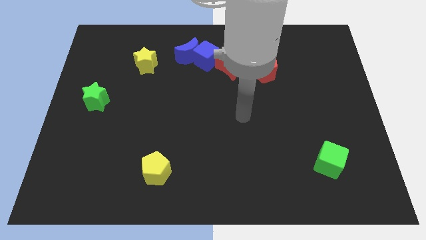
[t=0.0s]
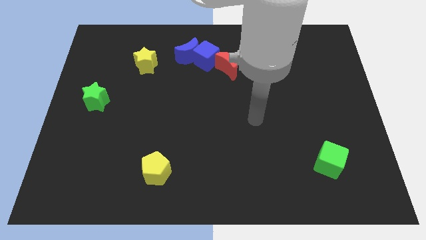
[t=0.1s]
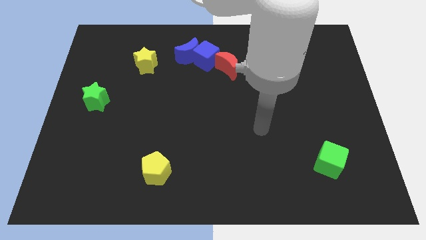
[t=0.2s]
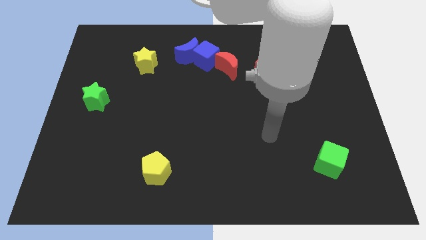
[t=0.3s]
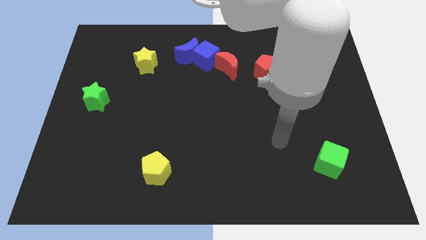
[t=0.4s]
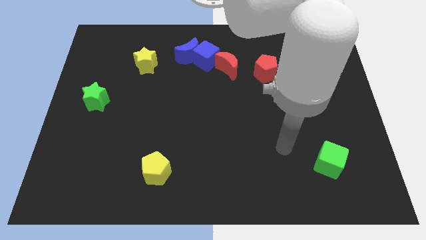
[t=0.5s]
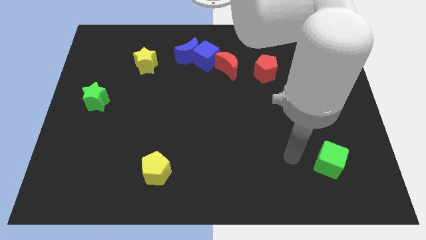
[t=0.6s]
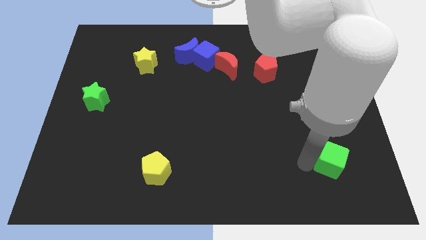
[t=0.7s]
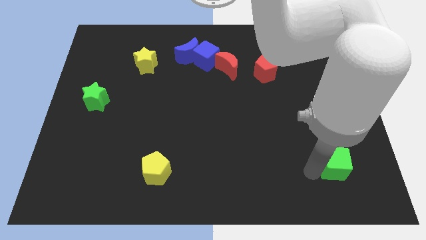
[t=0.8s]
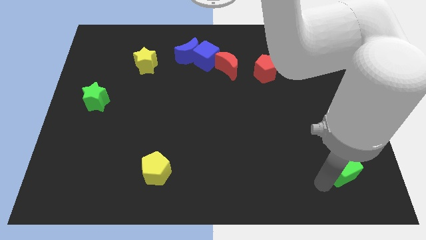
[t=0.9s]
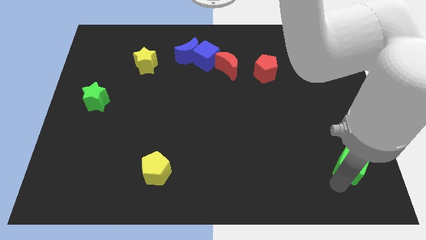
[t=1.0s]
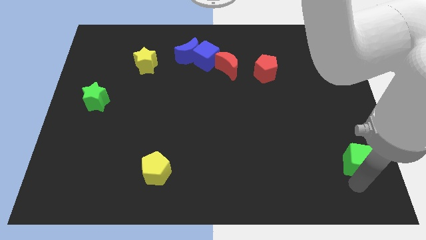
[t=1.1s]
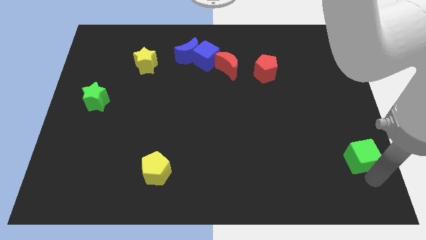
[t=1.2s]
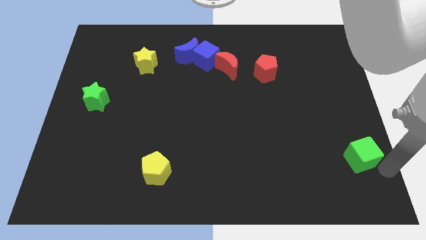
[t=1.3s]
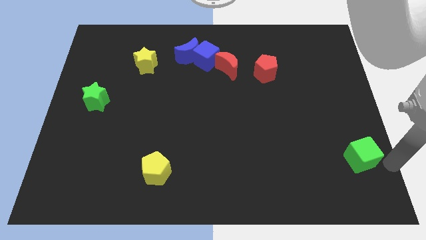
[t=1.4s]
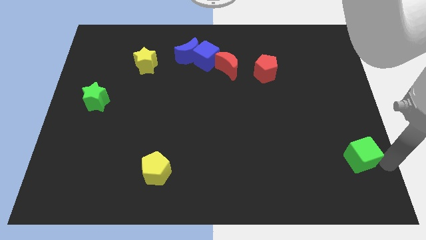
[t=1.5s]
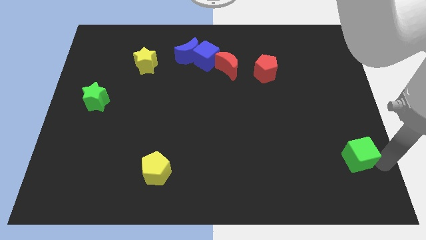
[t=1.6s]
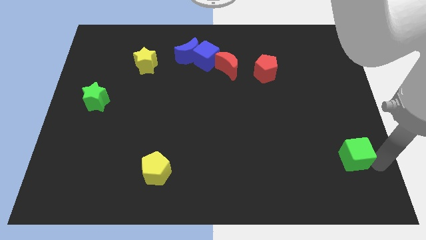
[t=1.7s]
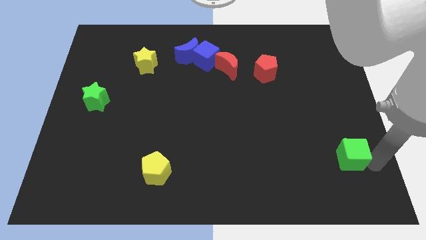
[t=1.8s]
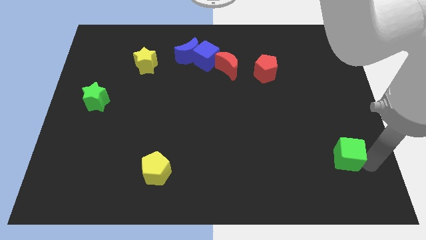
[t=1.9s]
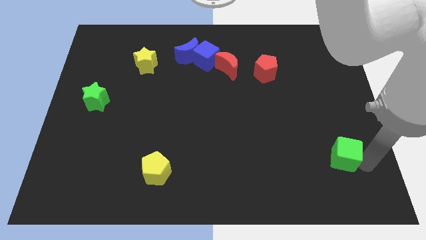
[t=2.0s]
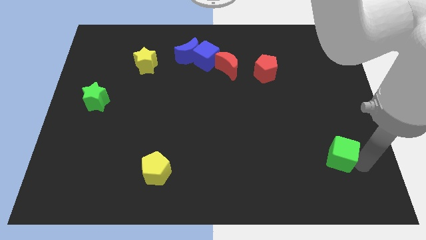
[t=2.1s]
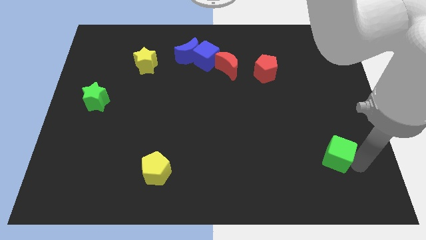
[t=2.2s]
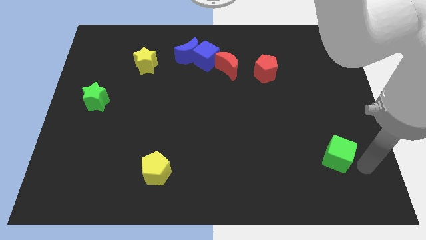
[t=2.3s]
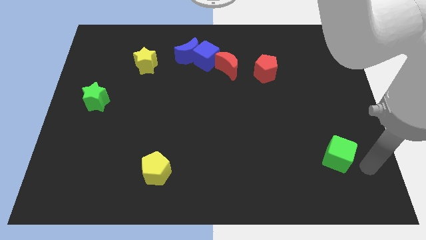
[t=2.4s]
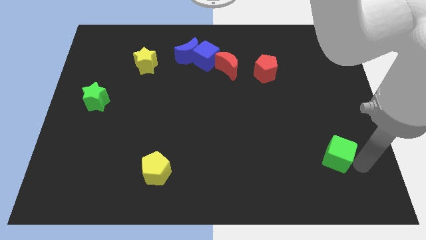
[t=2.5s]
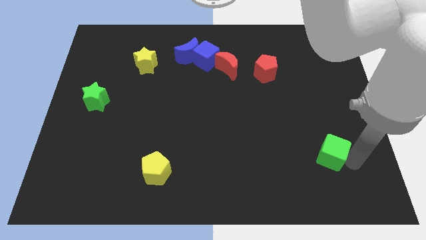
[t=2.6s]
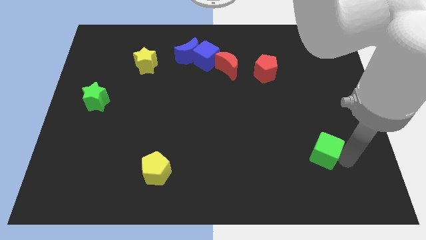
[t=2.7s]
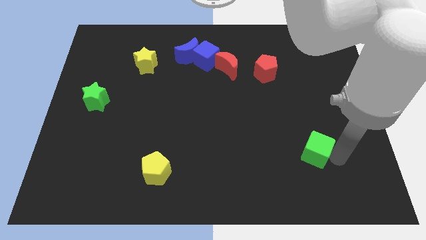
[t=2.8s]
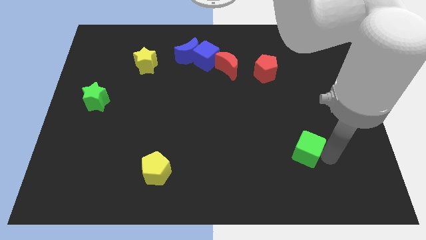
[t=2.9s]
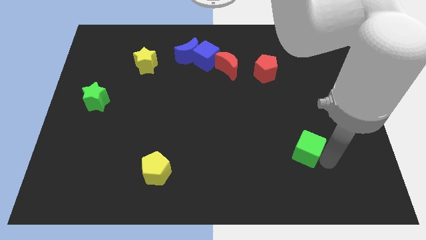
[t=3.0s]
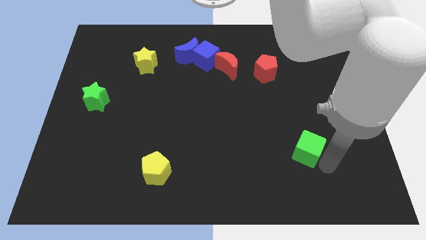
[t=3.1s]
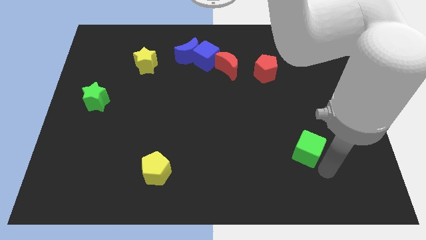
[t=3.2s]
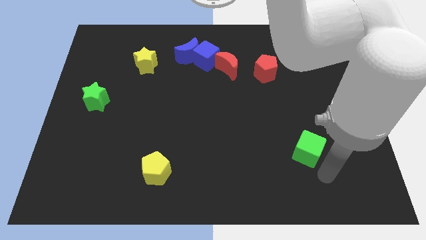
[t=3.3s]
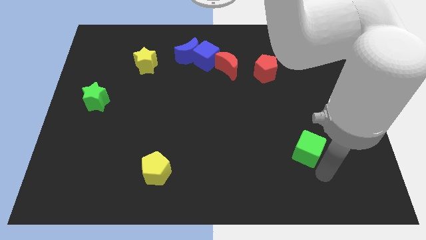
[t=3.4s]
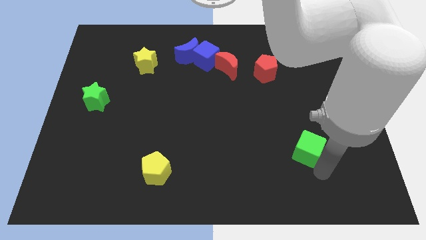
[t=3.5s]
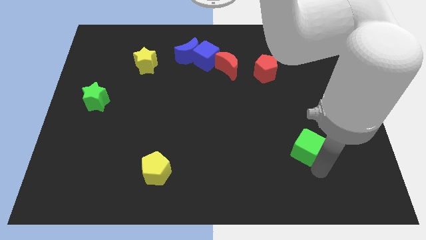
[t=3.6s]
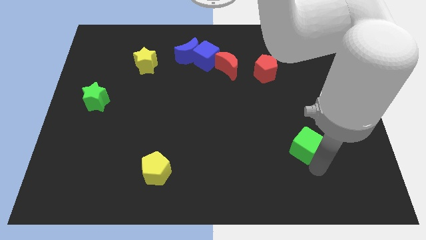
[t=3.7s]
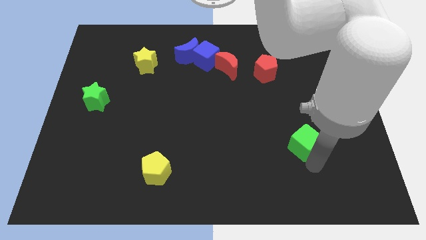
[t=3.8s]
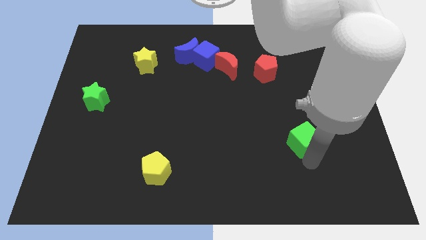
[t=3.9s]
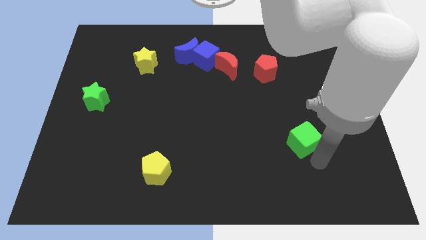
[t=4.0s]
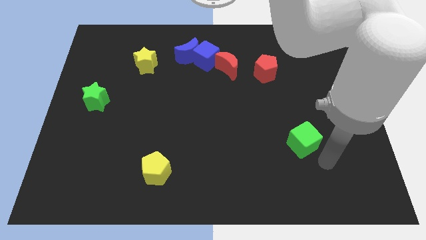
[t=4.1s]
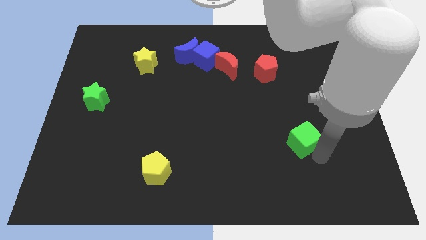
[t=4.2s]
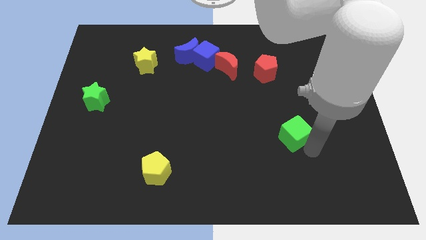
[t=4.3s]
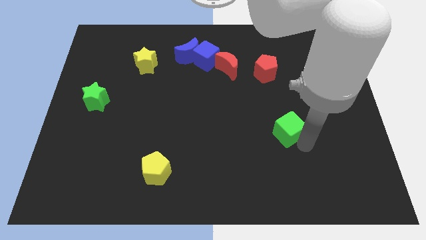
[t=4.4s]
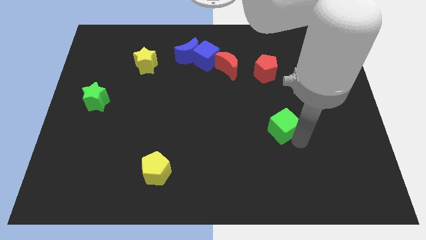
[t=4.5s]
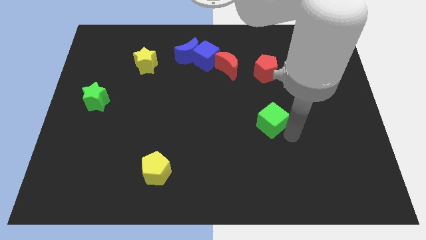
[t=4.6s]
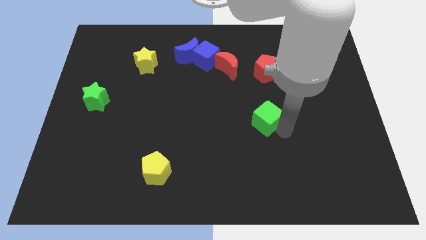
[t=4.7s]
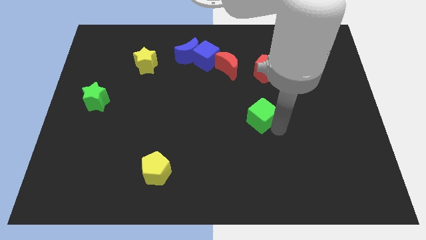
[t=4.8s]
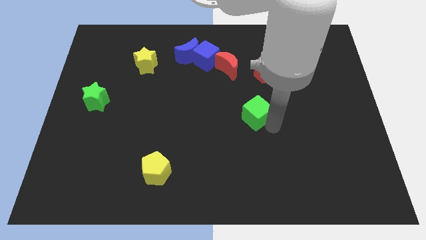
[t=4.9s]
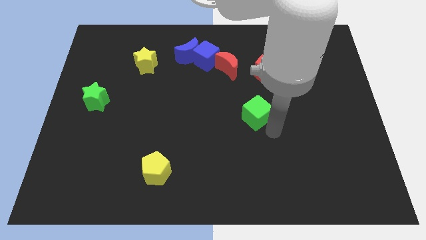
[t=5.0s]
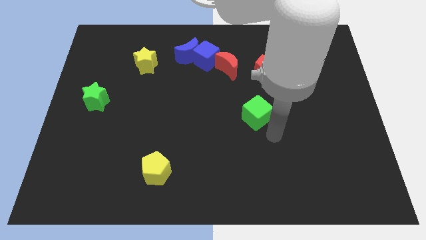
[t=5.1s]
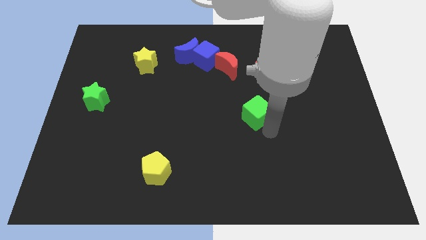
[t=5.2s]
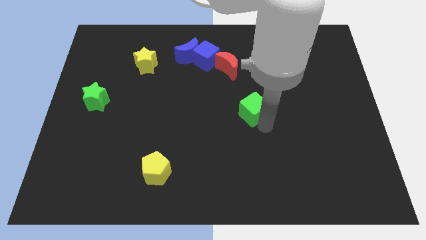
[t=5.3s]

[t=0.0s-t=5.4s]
push the green cube upwards and left

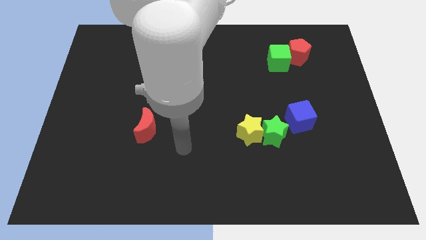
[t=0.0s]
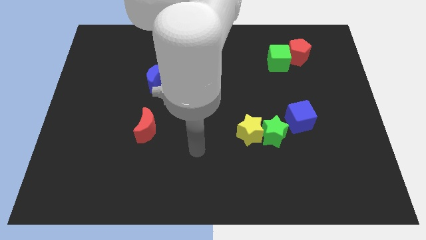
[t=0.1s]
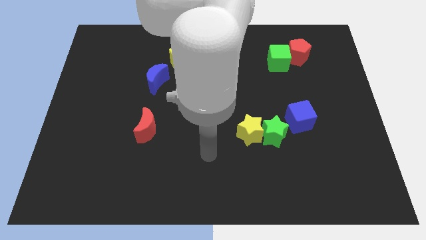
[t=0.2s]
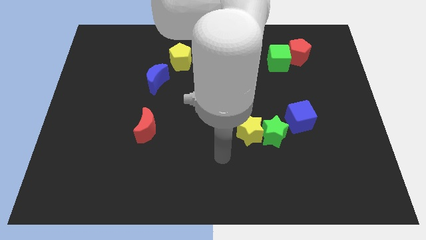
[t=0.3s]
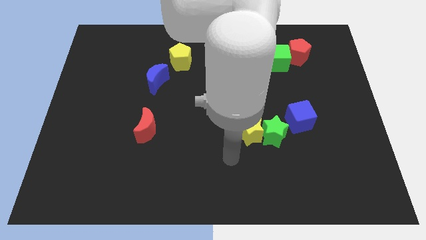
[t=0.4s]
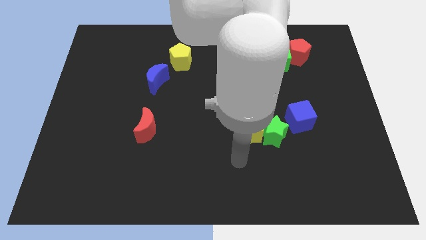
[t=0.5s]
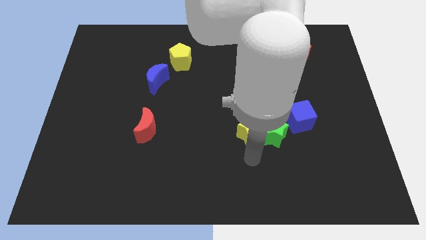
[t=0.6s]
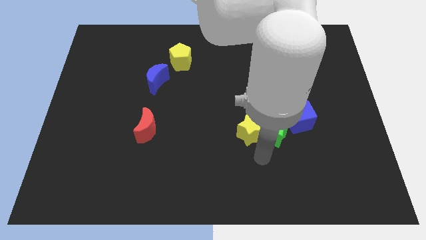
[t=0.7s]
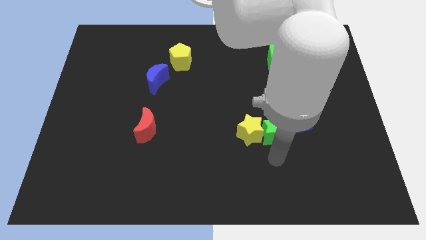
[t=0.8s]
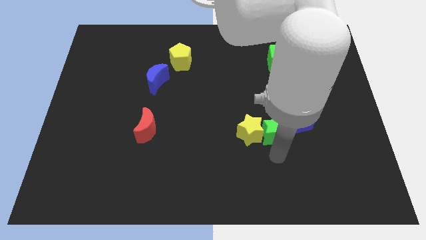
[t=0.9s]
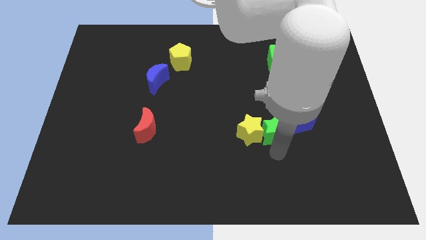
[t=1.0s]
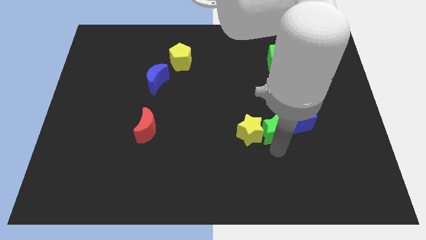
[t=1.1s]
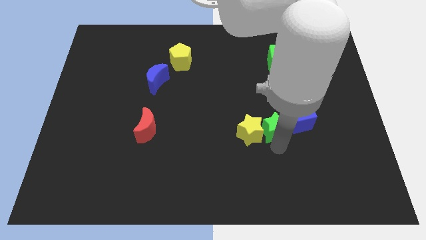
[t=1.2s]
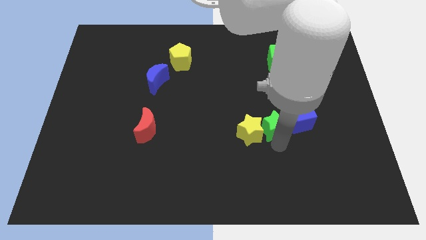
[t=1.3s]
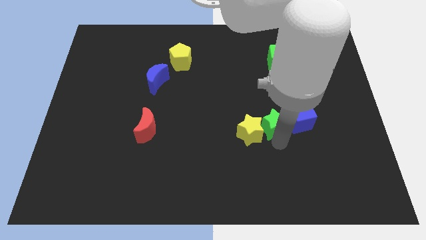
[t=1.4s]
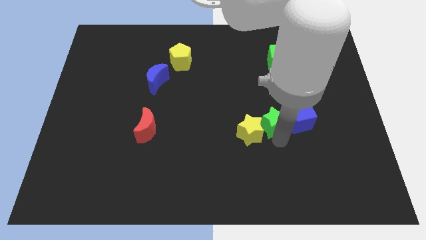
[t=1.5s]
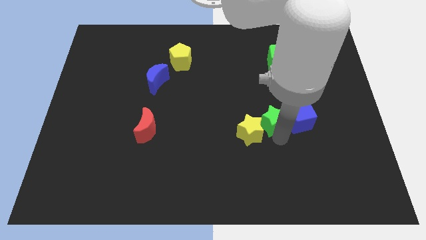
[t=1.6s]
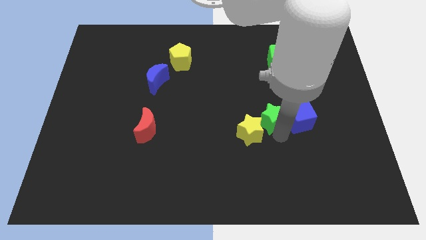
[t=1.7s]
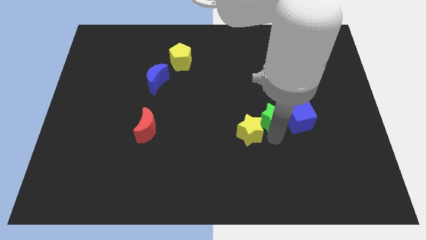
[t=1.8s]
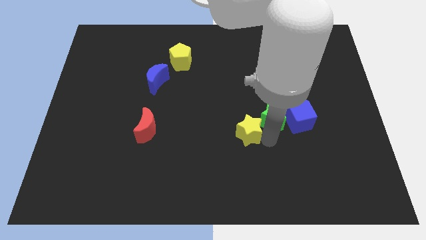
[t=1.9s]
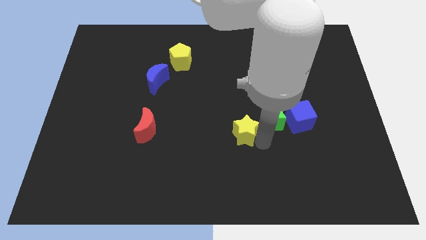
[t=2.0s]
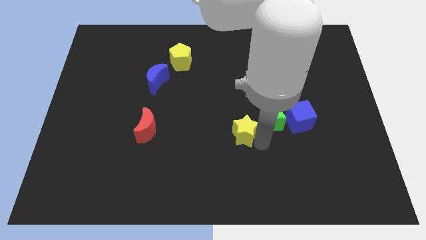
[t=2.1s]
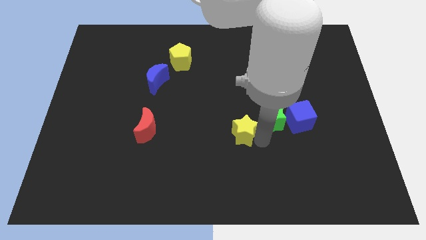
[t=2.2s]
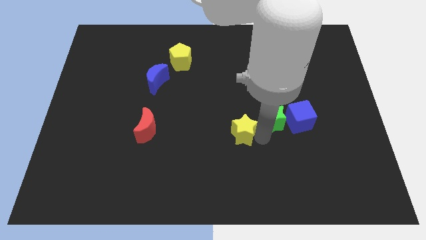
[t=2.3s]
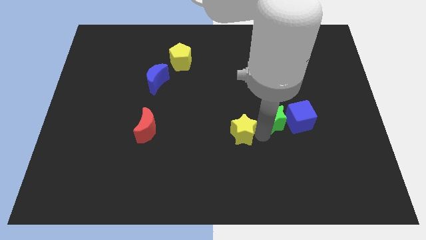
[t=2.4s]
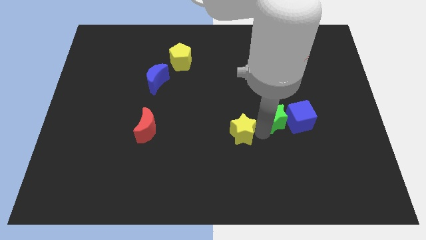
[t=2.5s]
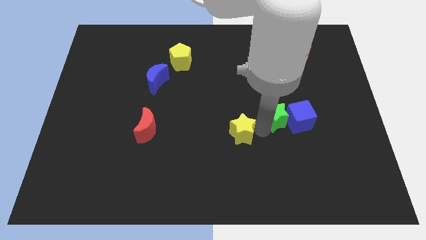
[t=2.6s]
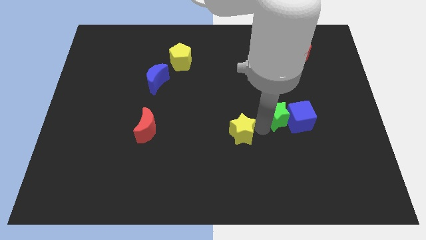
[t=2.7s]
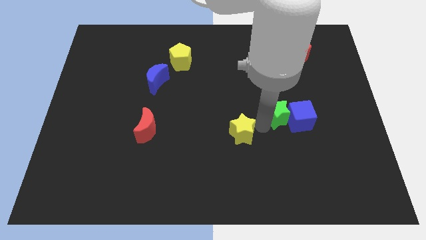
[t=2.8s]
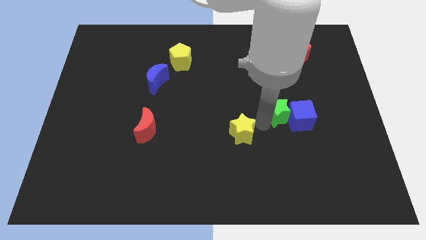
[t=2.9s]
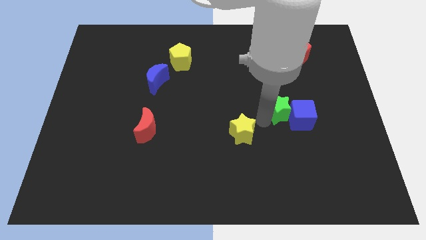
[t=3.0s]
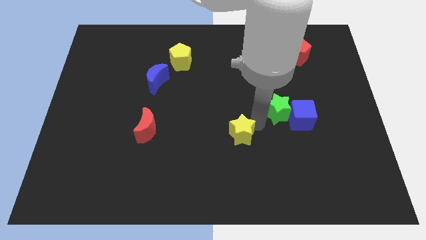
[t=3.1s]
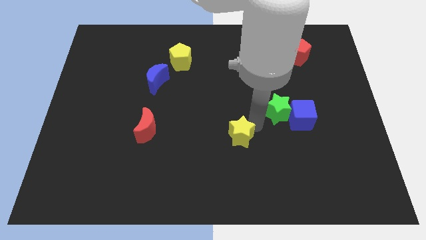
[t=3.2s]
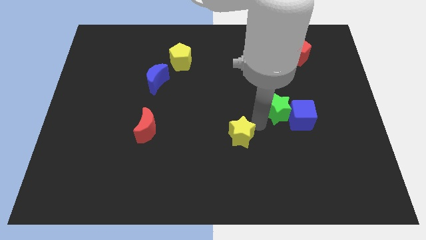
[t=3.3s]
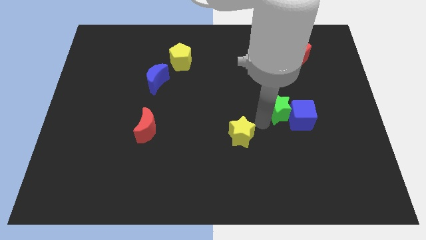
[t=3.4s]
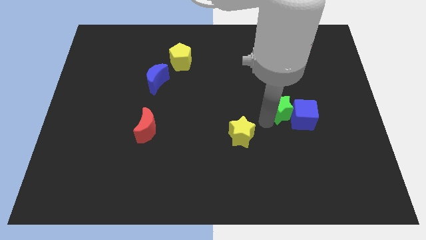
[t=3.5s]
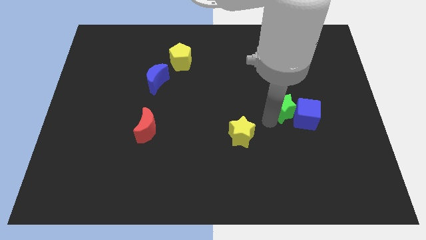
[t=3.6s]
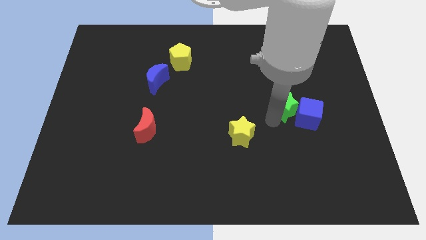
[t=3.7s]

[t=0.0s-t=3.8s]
slightly push the green star diagonally up and to the right
